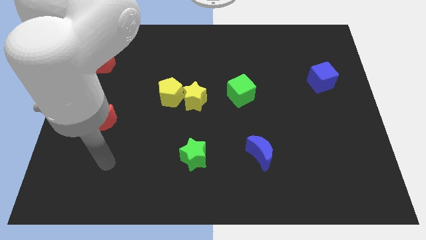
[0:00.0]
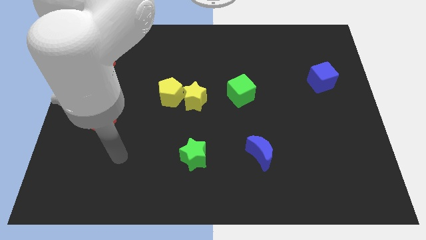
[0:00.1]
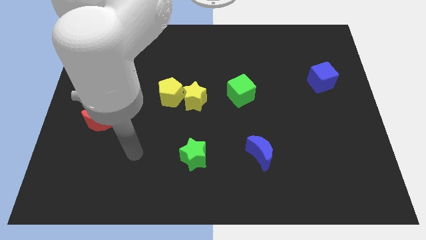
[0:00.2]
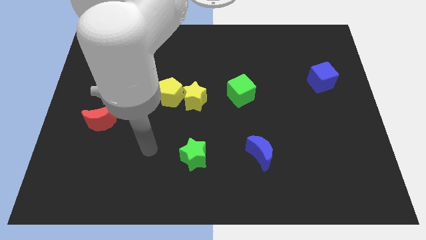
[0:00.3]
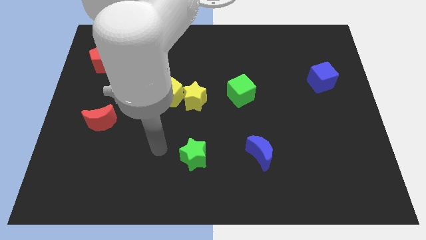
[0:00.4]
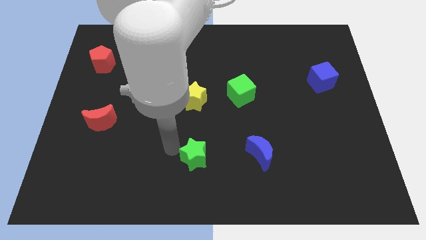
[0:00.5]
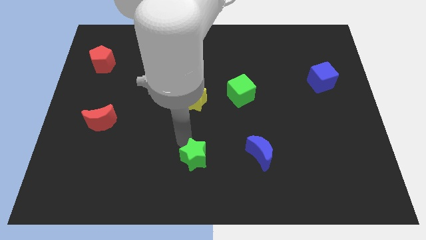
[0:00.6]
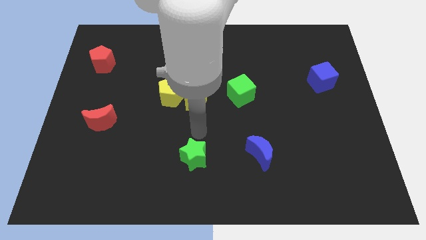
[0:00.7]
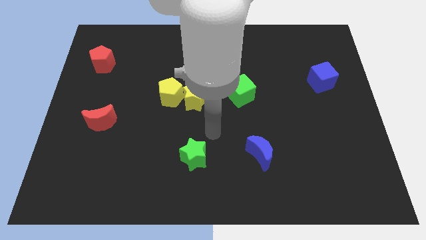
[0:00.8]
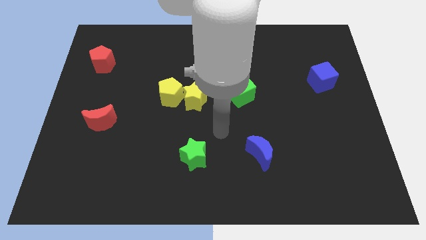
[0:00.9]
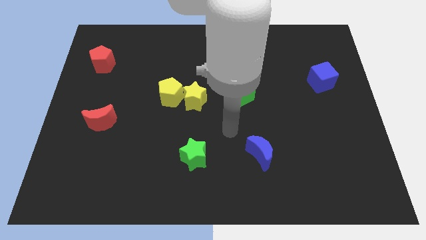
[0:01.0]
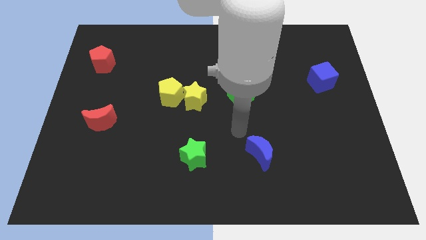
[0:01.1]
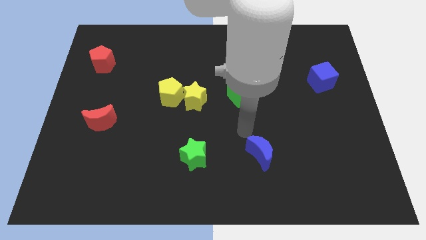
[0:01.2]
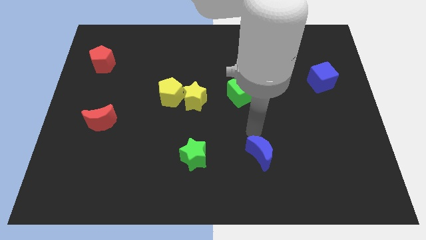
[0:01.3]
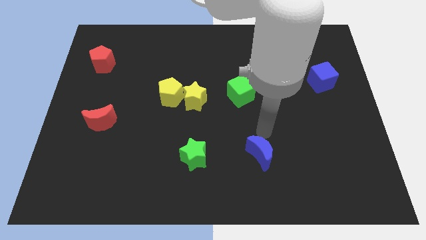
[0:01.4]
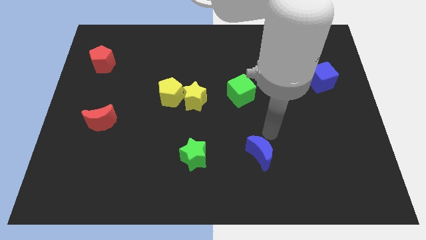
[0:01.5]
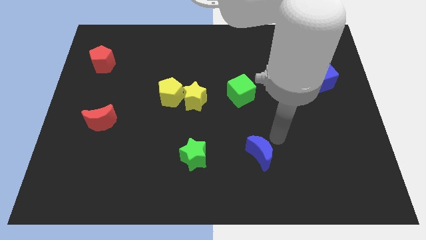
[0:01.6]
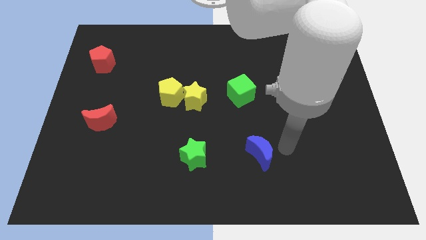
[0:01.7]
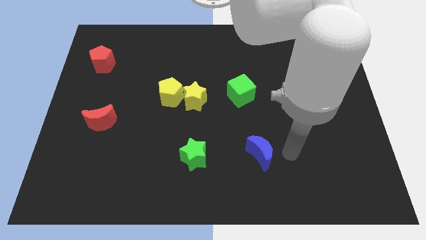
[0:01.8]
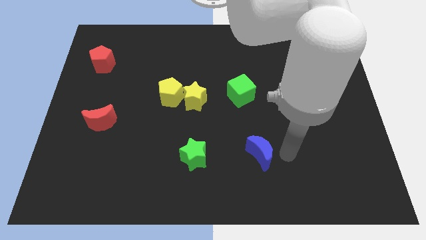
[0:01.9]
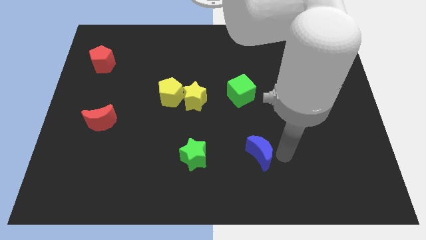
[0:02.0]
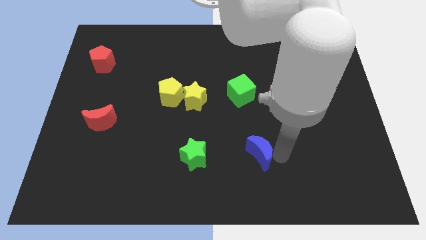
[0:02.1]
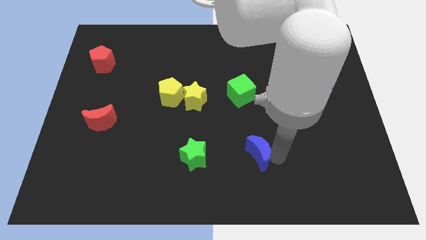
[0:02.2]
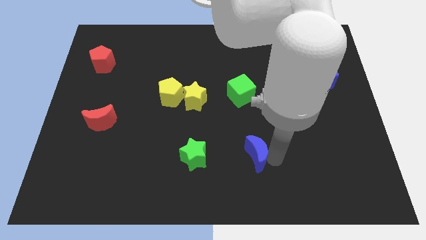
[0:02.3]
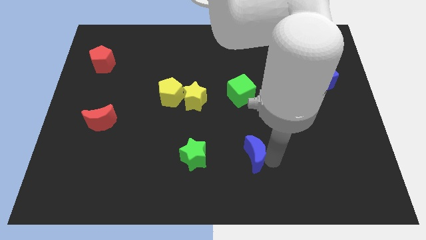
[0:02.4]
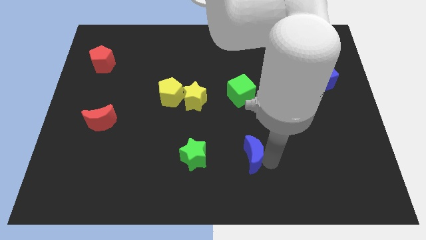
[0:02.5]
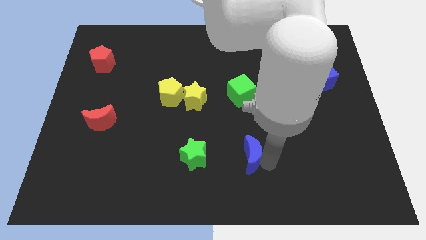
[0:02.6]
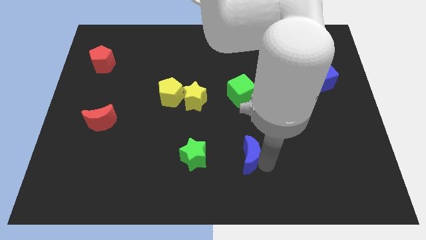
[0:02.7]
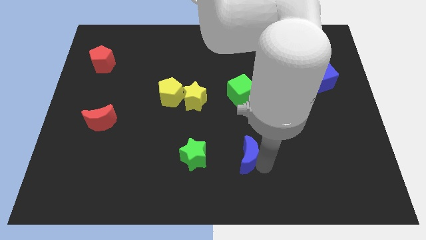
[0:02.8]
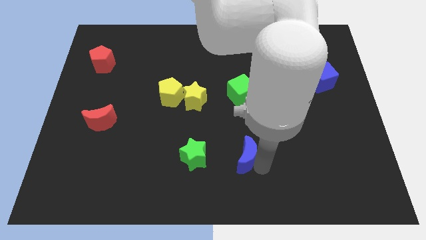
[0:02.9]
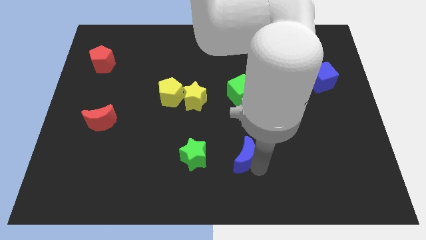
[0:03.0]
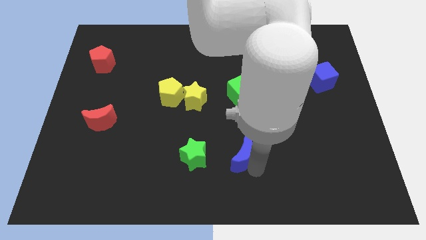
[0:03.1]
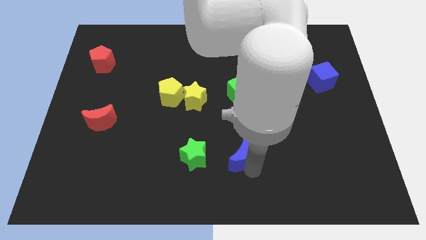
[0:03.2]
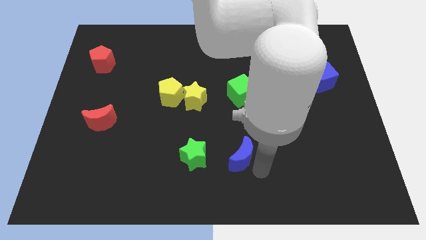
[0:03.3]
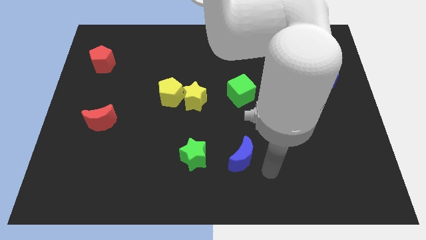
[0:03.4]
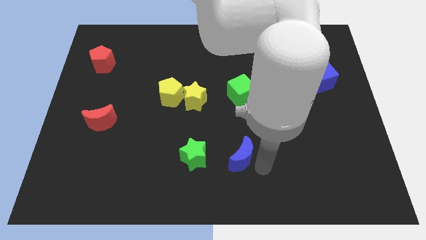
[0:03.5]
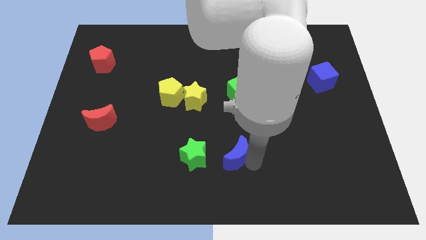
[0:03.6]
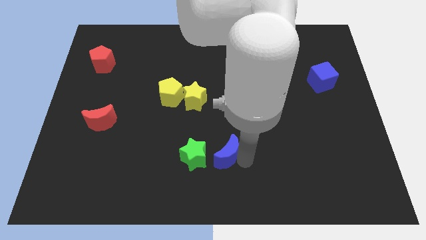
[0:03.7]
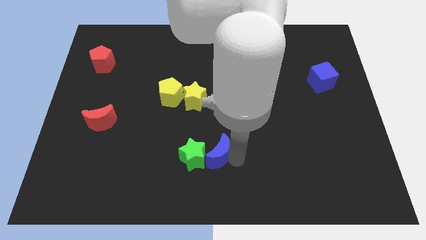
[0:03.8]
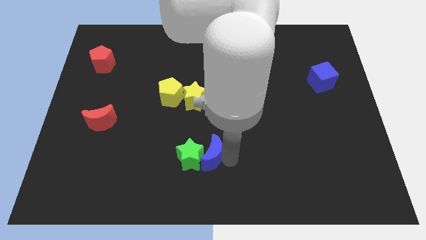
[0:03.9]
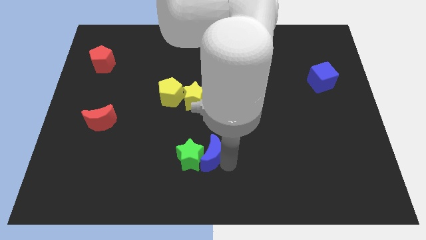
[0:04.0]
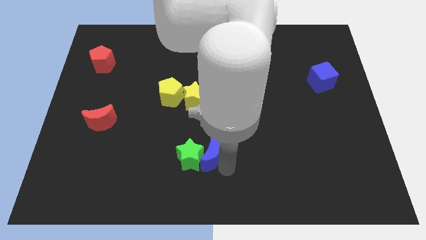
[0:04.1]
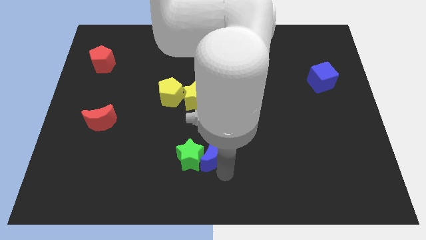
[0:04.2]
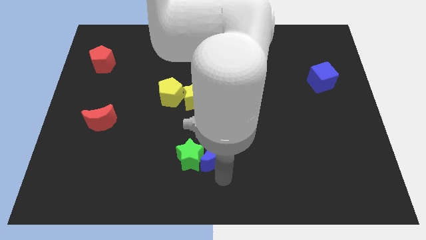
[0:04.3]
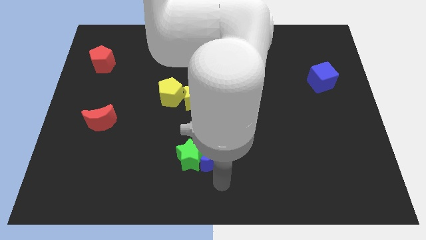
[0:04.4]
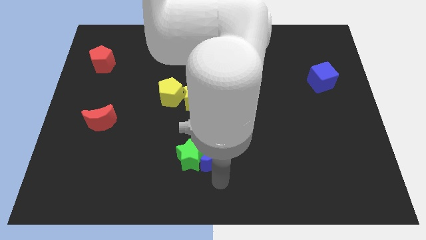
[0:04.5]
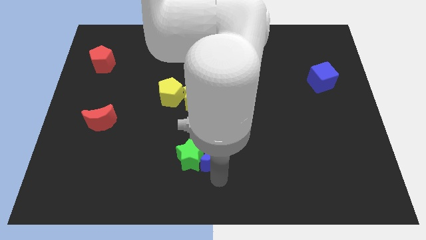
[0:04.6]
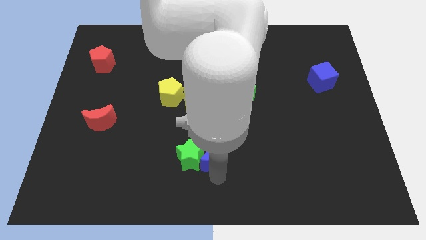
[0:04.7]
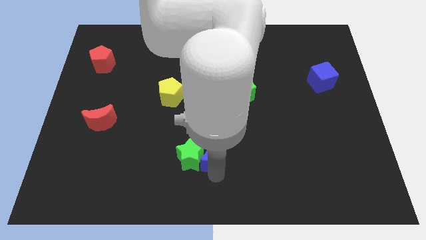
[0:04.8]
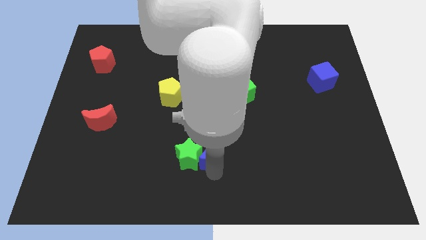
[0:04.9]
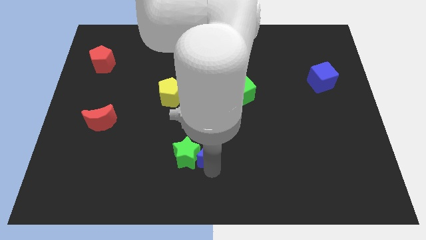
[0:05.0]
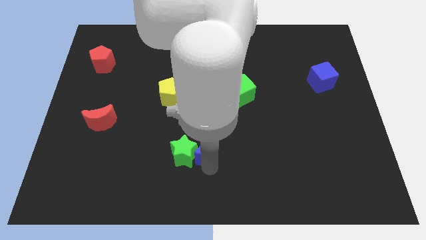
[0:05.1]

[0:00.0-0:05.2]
slide the blue moon below the yellow star
